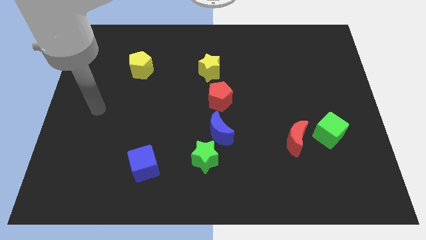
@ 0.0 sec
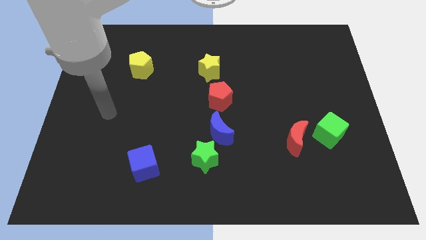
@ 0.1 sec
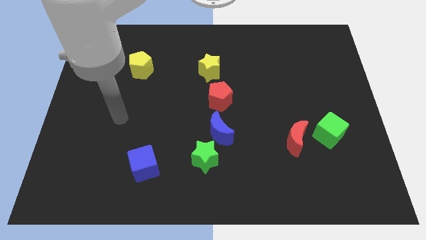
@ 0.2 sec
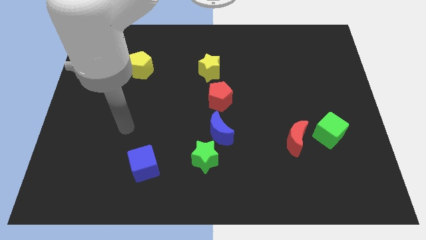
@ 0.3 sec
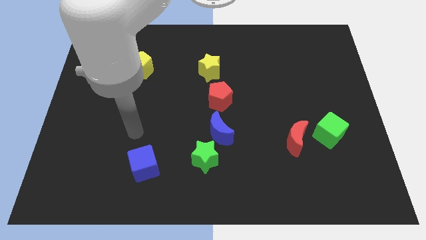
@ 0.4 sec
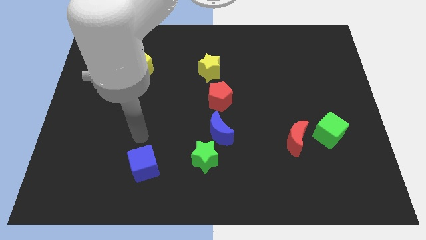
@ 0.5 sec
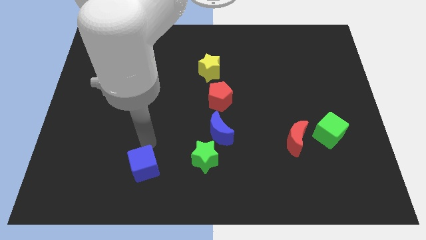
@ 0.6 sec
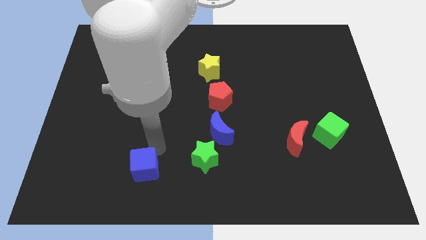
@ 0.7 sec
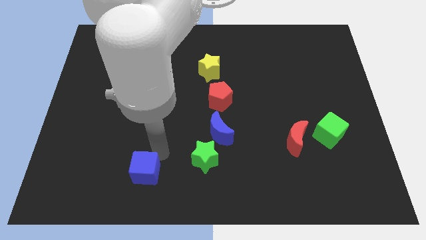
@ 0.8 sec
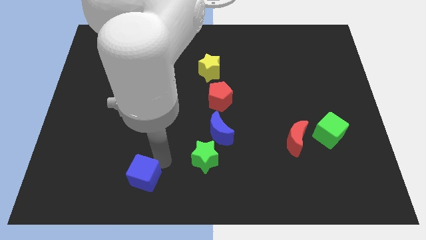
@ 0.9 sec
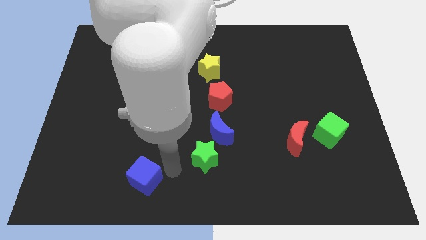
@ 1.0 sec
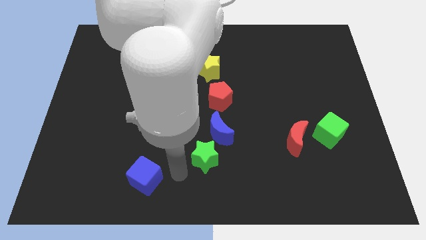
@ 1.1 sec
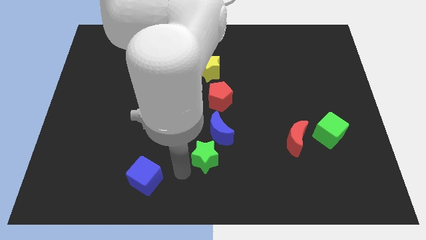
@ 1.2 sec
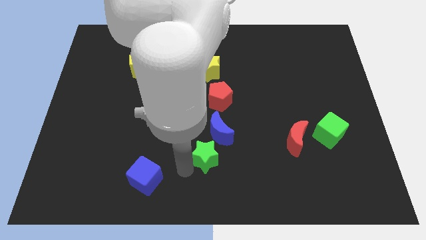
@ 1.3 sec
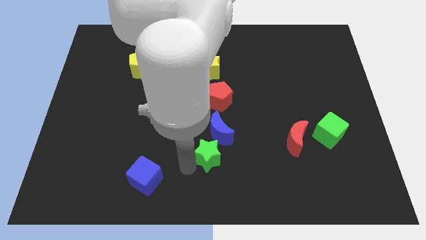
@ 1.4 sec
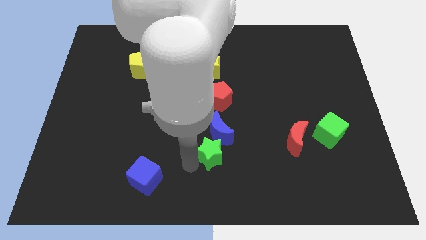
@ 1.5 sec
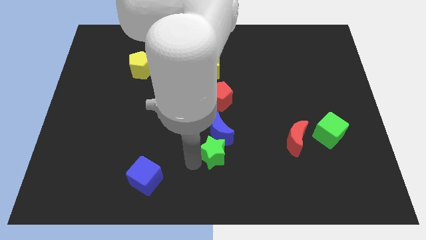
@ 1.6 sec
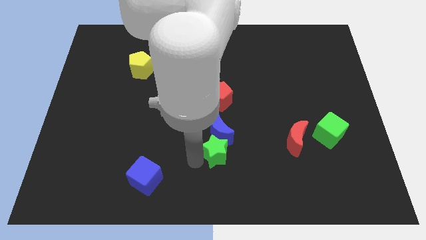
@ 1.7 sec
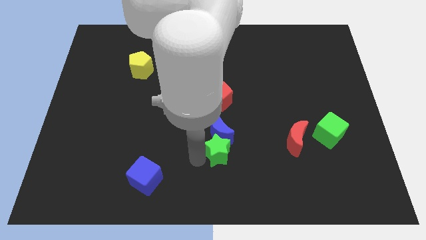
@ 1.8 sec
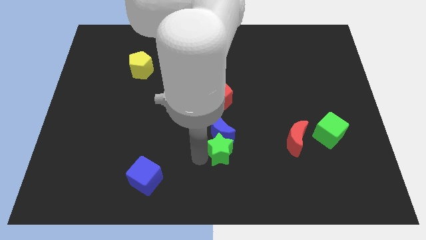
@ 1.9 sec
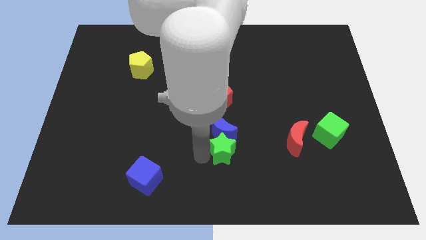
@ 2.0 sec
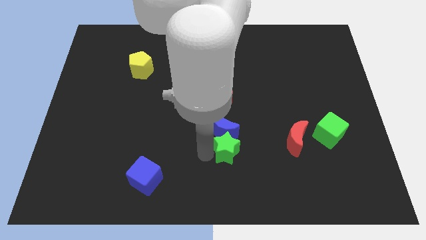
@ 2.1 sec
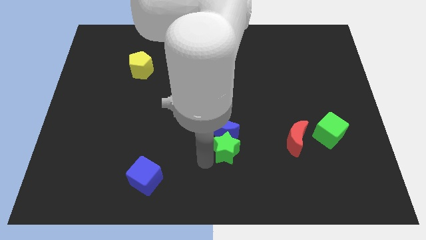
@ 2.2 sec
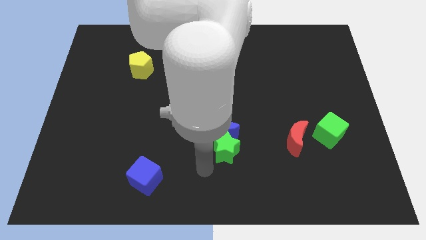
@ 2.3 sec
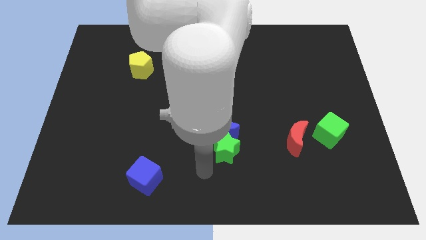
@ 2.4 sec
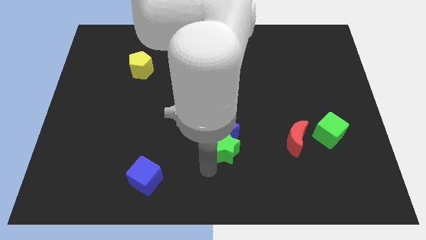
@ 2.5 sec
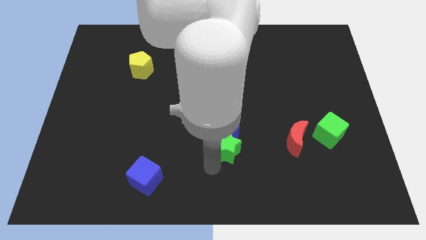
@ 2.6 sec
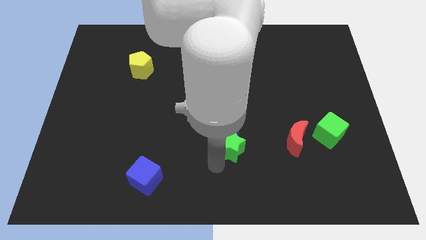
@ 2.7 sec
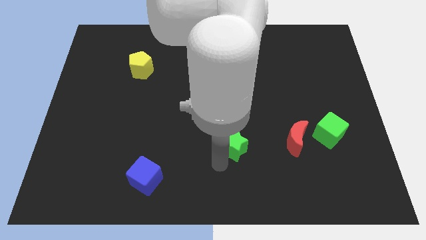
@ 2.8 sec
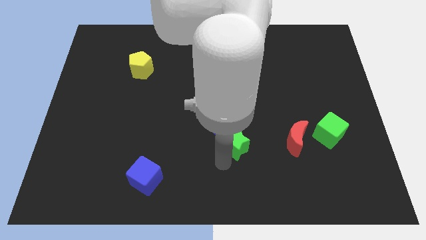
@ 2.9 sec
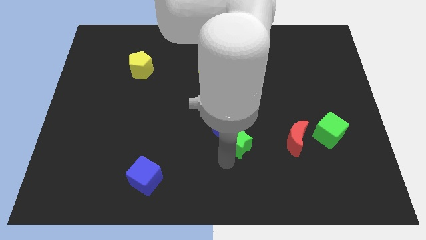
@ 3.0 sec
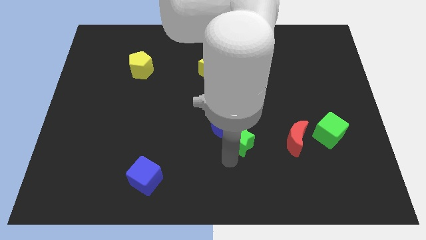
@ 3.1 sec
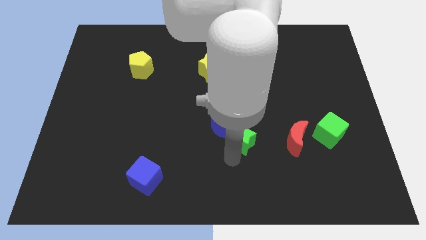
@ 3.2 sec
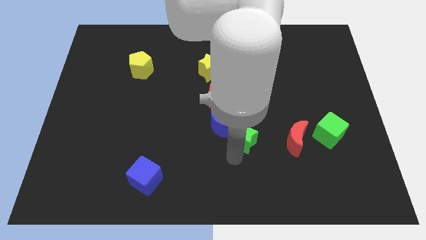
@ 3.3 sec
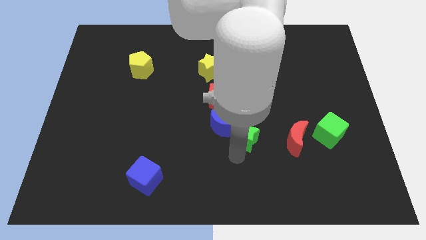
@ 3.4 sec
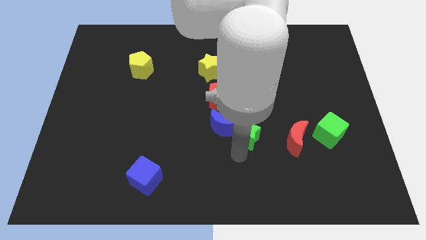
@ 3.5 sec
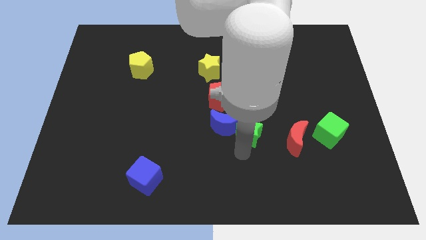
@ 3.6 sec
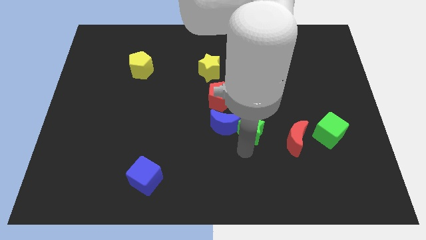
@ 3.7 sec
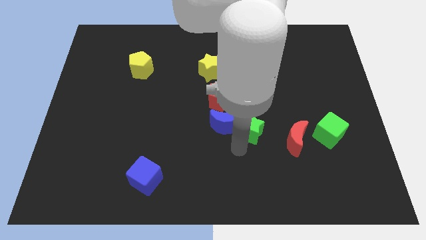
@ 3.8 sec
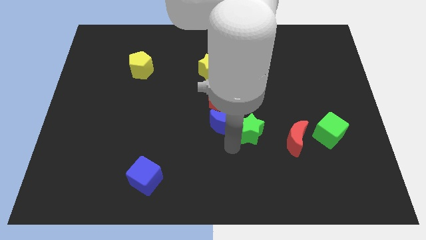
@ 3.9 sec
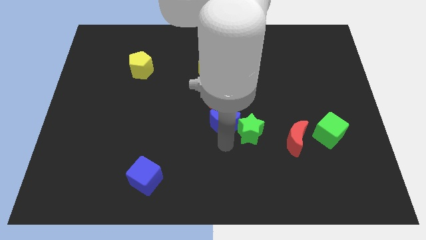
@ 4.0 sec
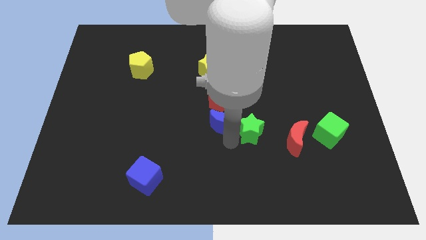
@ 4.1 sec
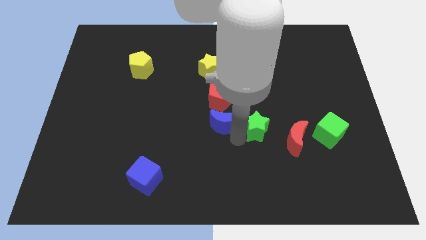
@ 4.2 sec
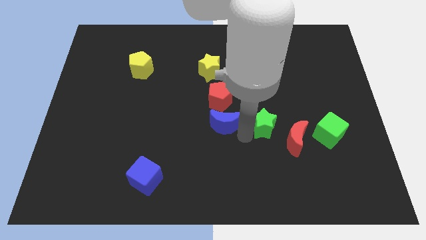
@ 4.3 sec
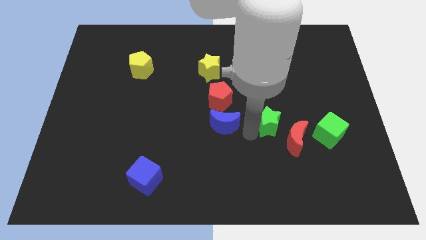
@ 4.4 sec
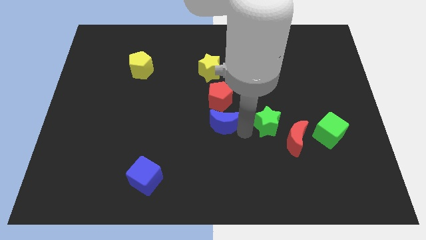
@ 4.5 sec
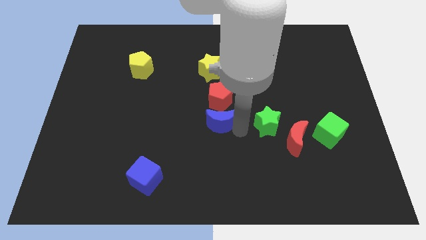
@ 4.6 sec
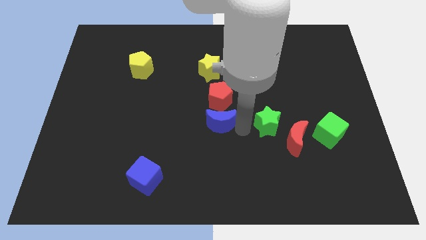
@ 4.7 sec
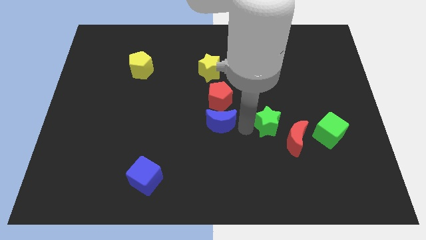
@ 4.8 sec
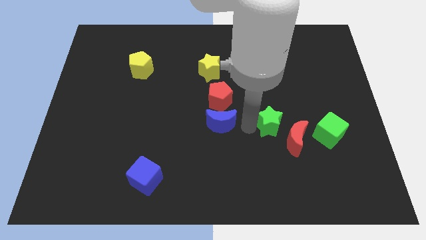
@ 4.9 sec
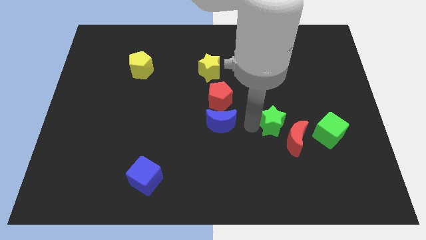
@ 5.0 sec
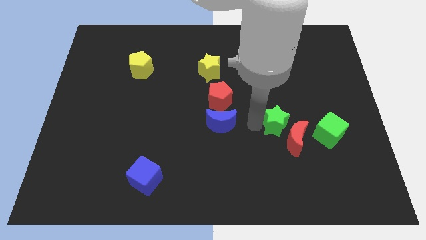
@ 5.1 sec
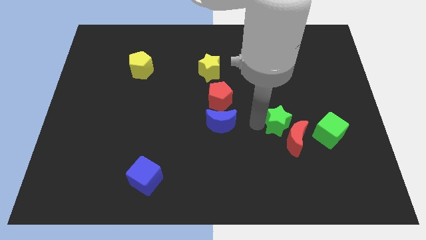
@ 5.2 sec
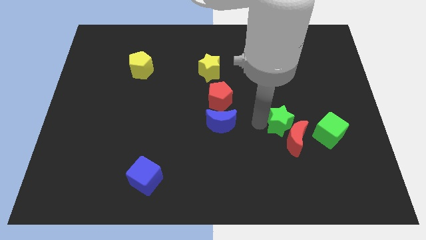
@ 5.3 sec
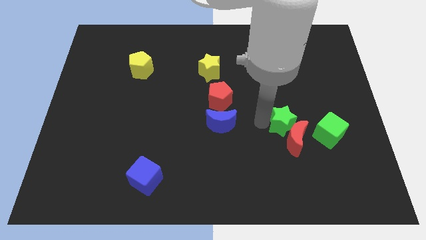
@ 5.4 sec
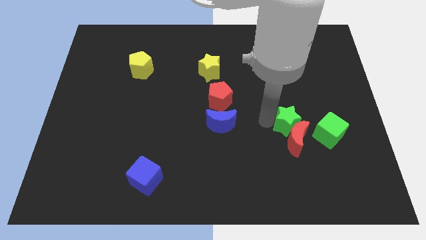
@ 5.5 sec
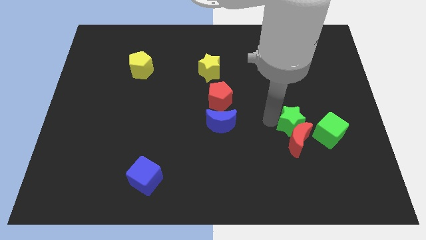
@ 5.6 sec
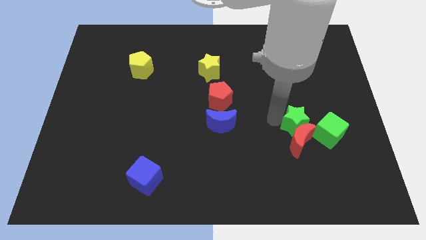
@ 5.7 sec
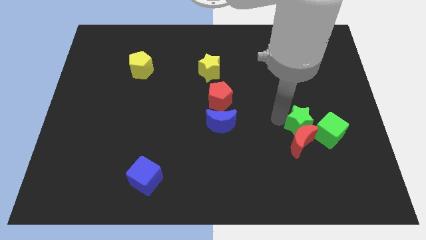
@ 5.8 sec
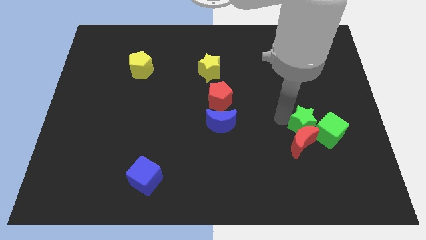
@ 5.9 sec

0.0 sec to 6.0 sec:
move the green star to the green cube

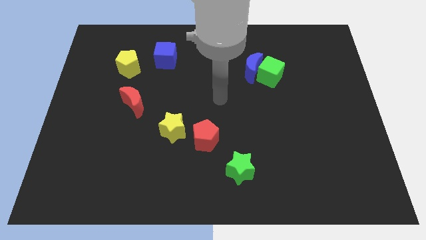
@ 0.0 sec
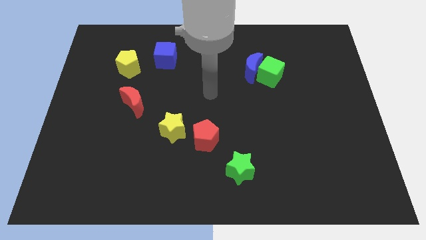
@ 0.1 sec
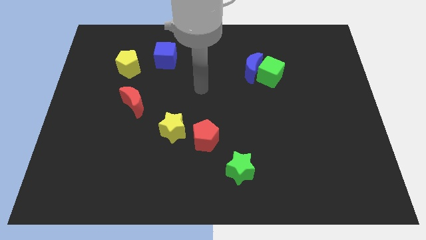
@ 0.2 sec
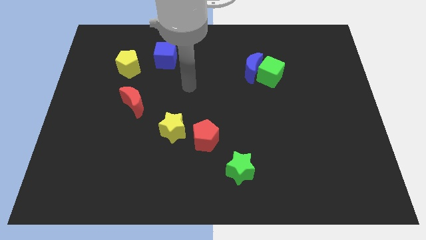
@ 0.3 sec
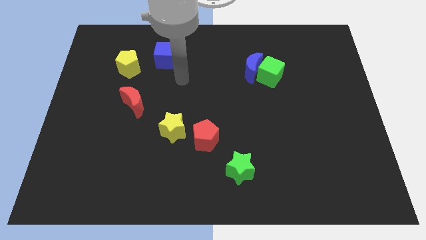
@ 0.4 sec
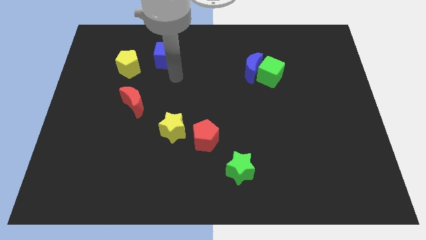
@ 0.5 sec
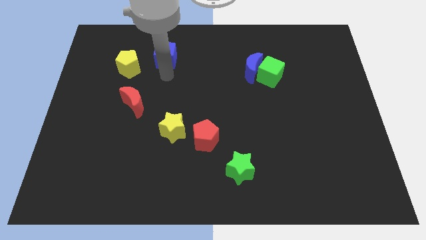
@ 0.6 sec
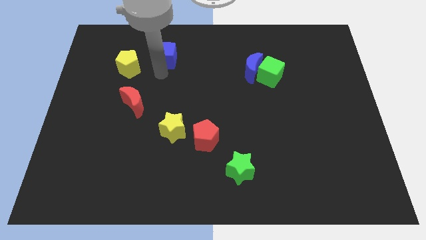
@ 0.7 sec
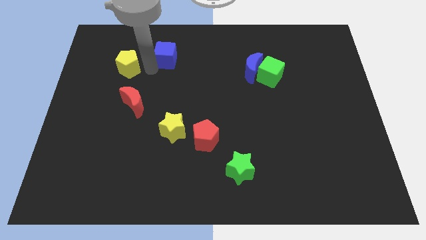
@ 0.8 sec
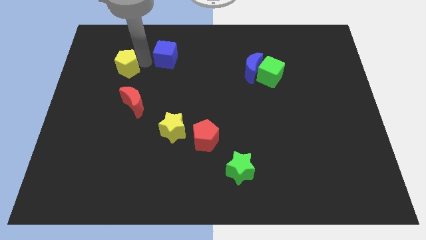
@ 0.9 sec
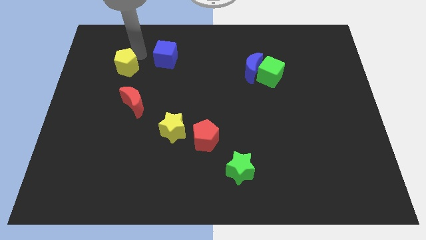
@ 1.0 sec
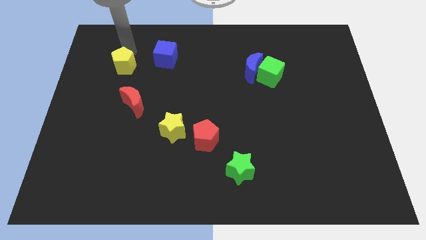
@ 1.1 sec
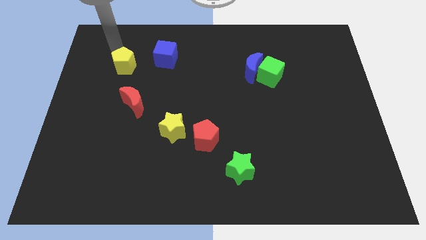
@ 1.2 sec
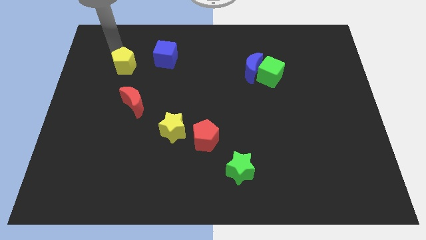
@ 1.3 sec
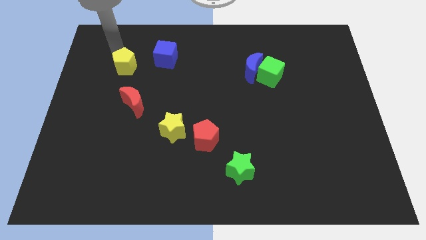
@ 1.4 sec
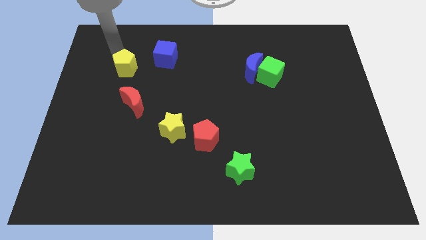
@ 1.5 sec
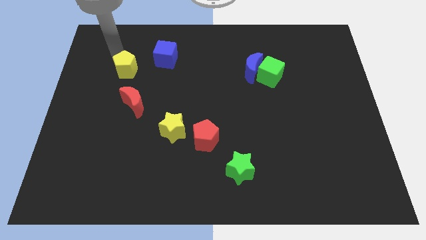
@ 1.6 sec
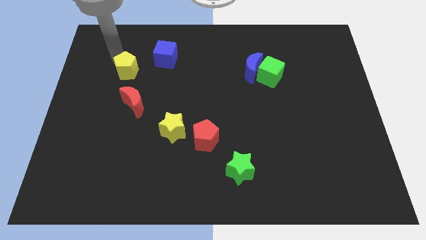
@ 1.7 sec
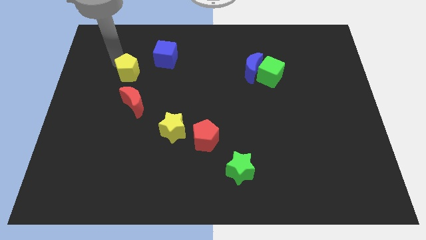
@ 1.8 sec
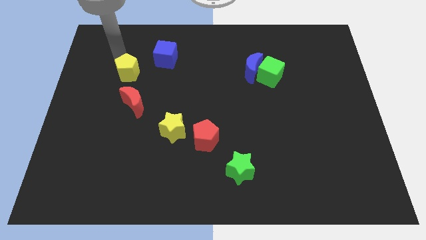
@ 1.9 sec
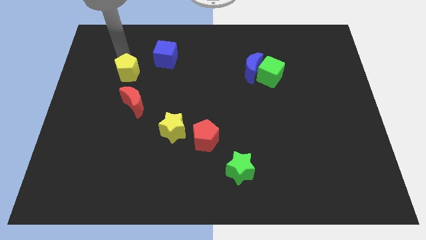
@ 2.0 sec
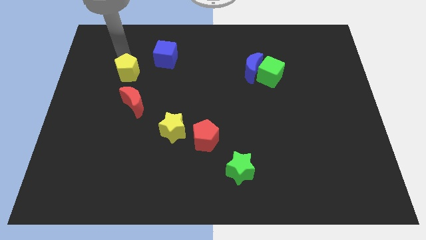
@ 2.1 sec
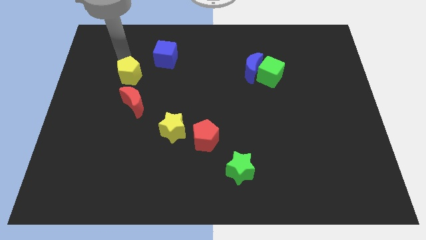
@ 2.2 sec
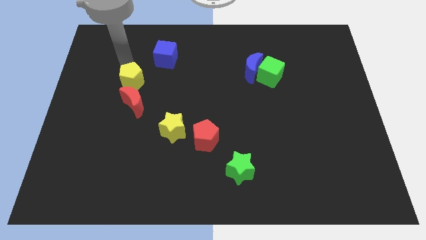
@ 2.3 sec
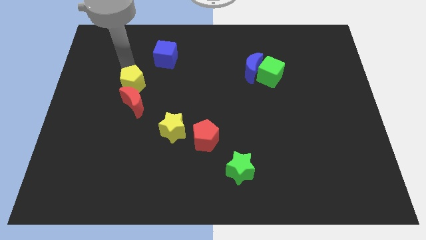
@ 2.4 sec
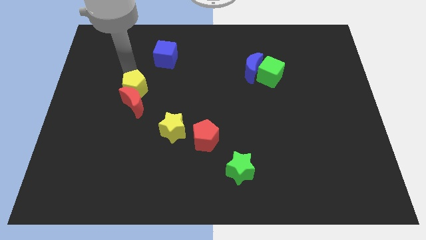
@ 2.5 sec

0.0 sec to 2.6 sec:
slide the yellow pentagon next to the red moon
